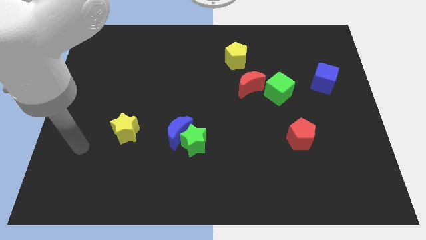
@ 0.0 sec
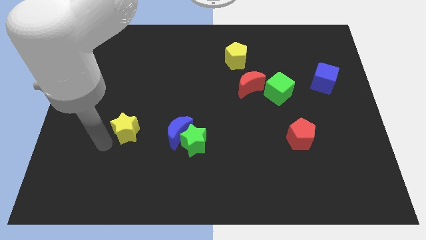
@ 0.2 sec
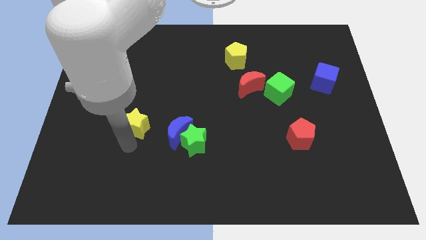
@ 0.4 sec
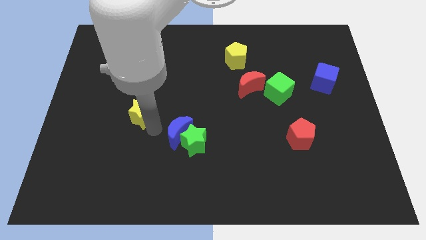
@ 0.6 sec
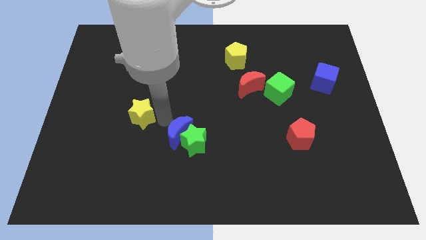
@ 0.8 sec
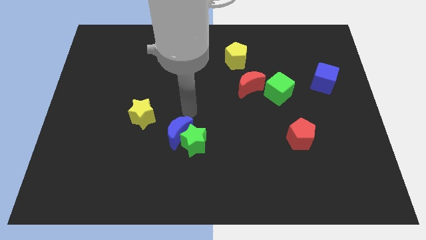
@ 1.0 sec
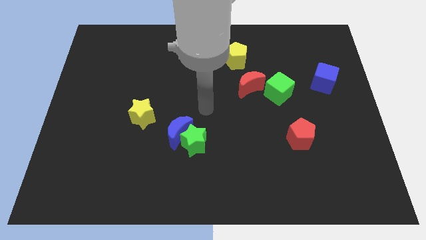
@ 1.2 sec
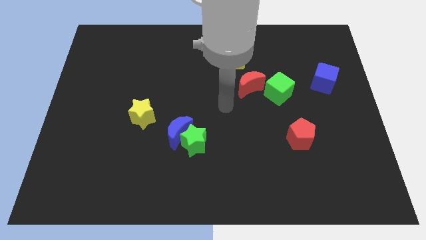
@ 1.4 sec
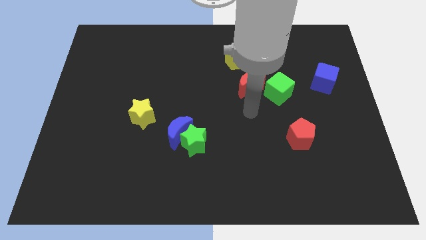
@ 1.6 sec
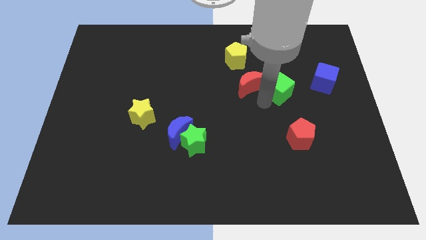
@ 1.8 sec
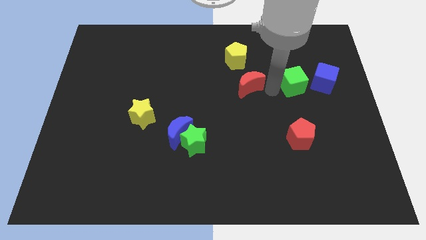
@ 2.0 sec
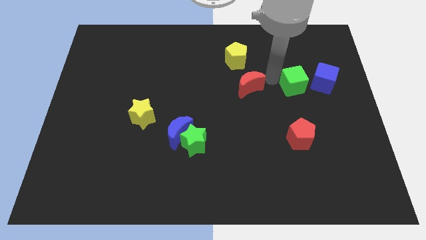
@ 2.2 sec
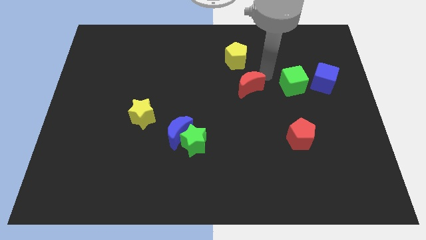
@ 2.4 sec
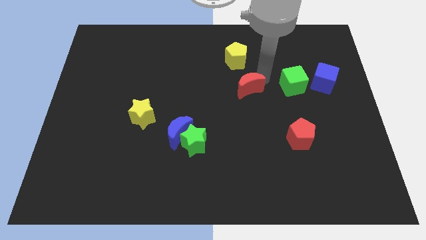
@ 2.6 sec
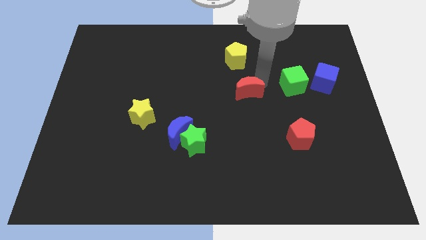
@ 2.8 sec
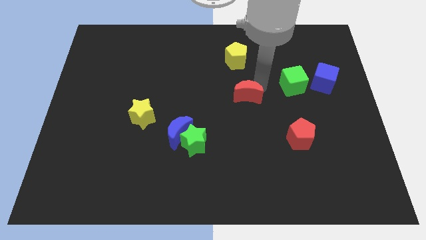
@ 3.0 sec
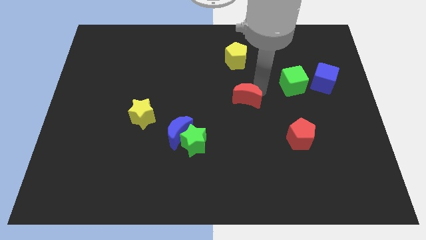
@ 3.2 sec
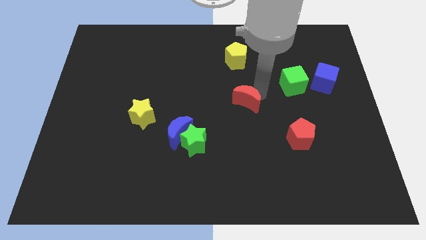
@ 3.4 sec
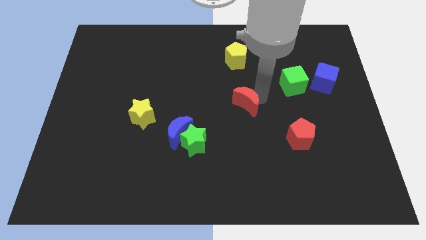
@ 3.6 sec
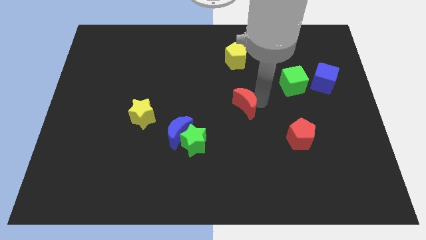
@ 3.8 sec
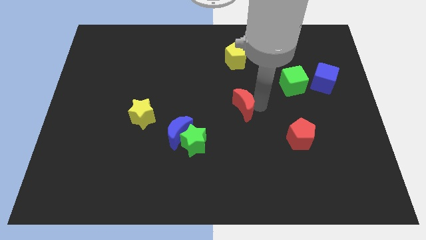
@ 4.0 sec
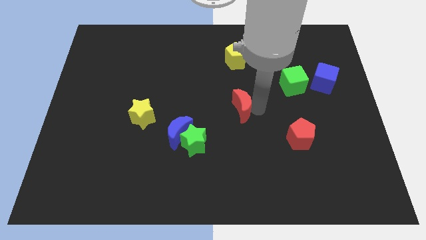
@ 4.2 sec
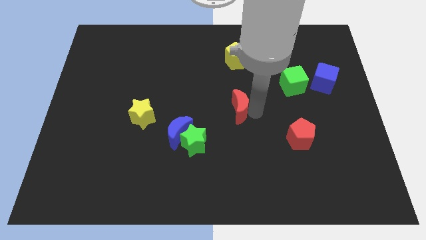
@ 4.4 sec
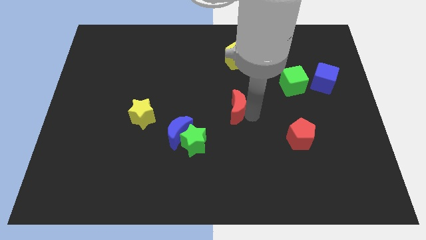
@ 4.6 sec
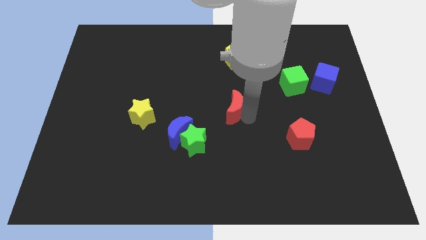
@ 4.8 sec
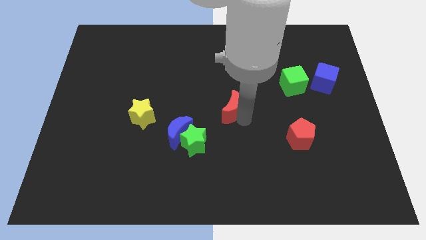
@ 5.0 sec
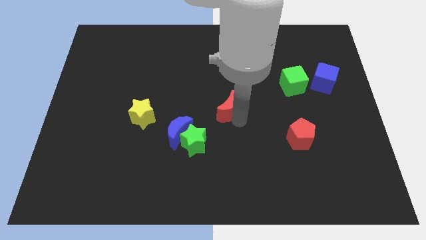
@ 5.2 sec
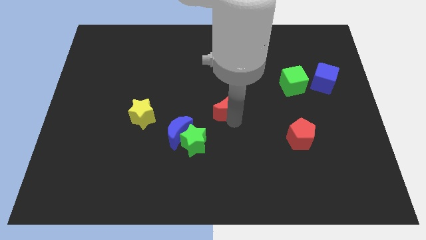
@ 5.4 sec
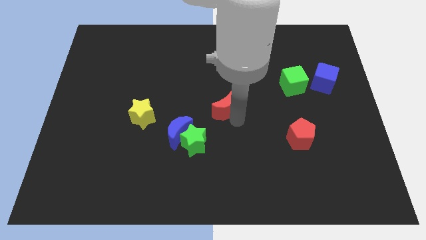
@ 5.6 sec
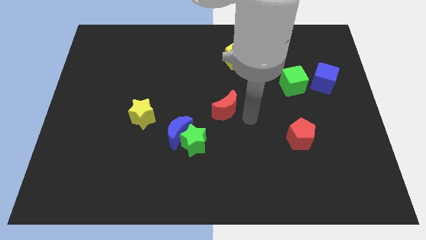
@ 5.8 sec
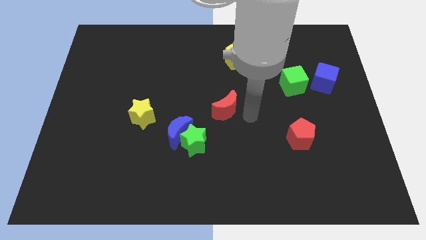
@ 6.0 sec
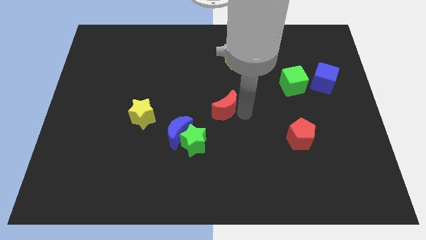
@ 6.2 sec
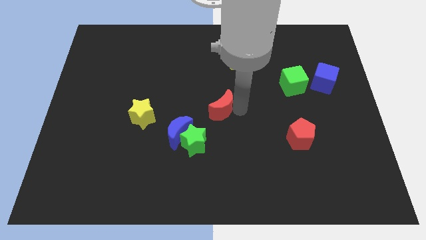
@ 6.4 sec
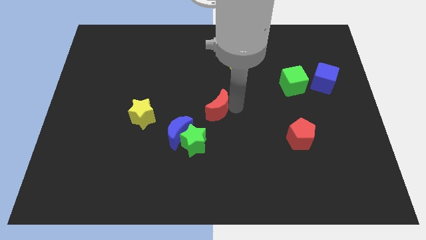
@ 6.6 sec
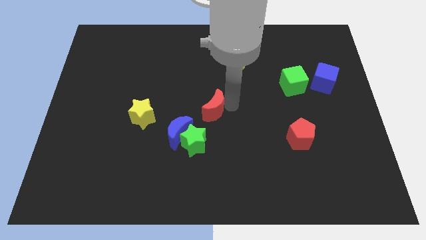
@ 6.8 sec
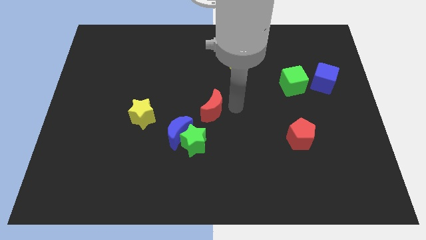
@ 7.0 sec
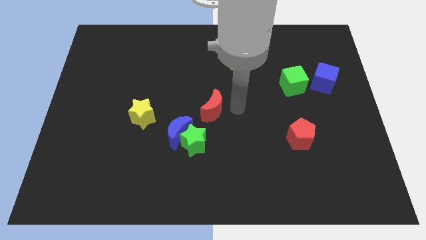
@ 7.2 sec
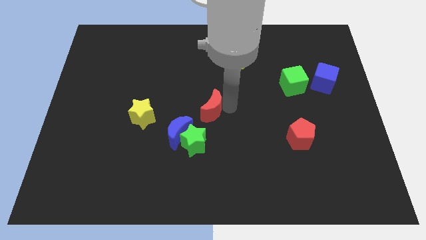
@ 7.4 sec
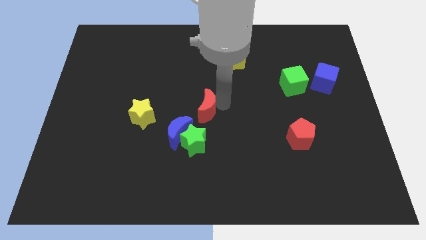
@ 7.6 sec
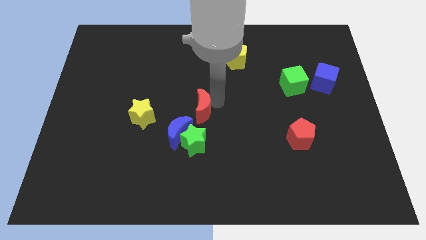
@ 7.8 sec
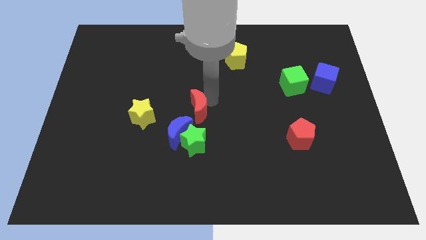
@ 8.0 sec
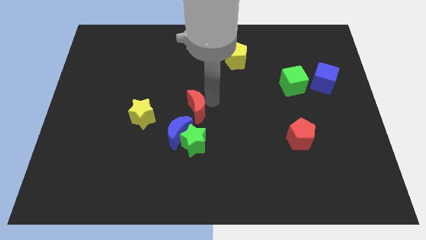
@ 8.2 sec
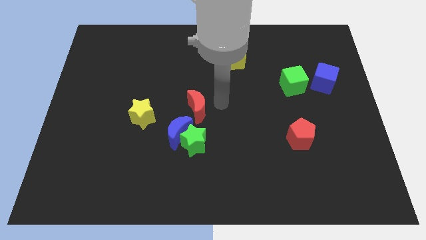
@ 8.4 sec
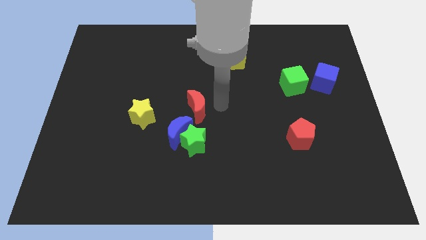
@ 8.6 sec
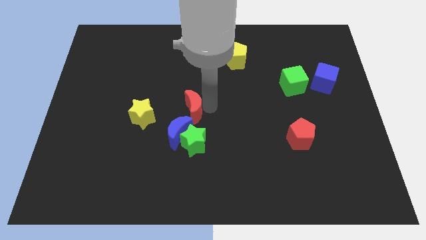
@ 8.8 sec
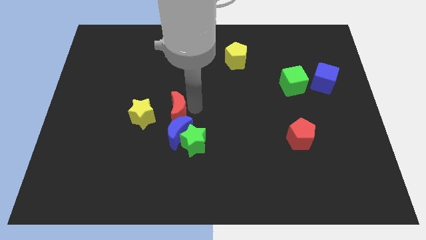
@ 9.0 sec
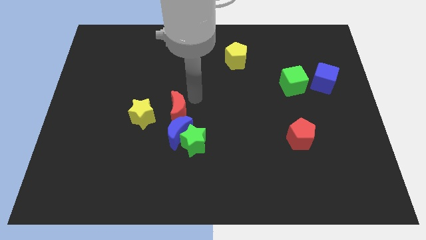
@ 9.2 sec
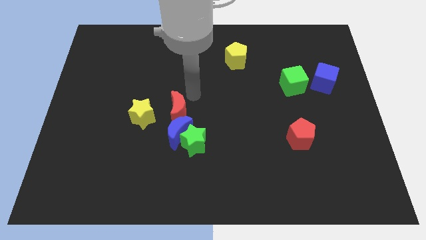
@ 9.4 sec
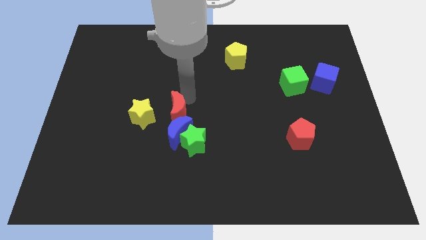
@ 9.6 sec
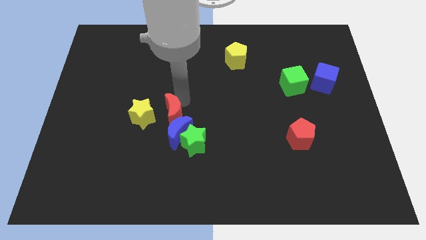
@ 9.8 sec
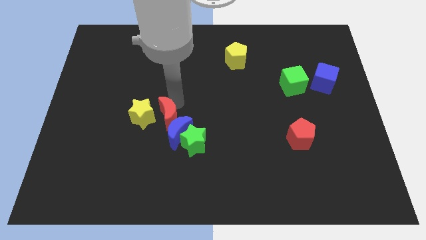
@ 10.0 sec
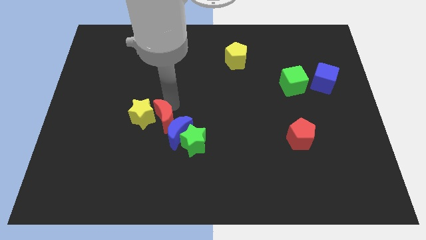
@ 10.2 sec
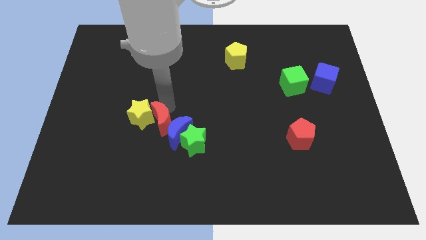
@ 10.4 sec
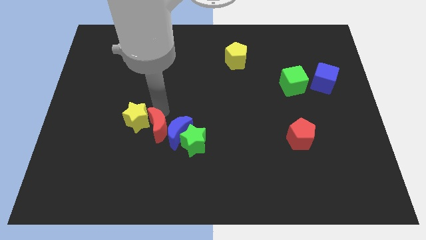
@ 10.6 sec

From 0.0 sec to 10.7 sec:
push the red moon to the bottom left side of the blue moon

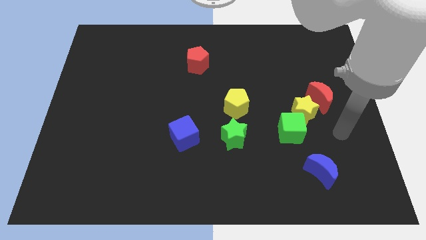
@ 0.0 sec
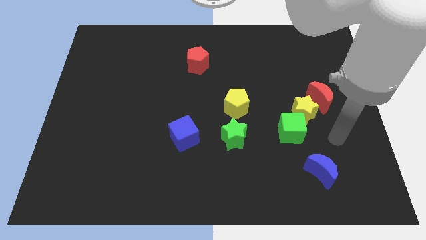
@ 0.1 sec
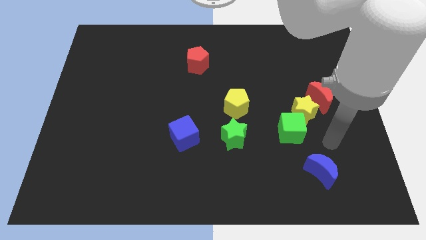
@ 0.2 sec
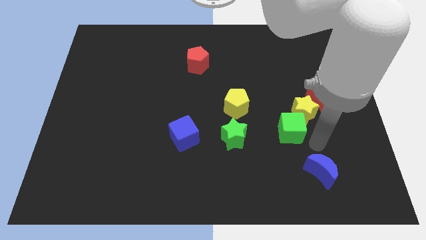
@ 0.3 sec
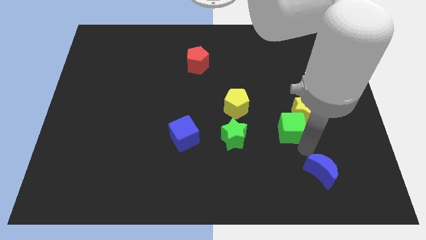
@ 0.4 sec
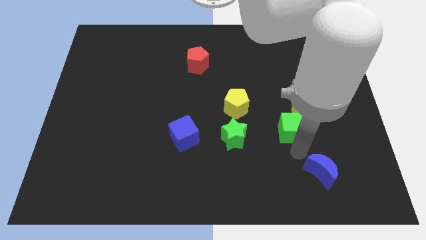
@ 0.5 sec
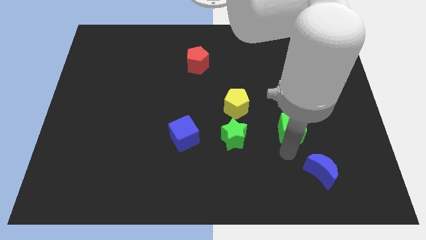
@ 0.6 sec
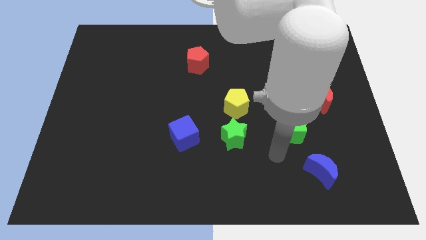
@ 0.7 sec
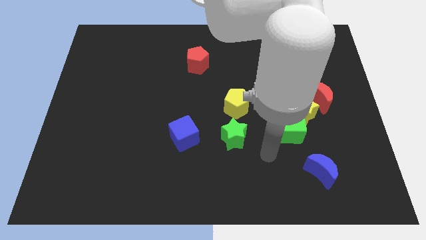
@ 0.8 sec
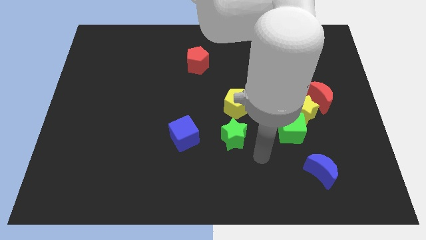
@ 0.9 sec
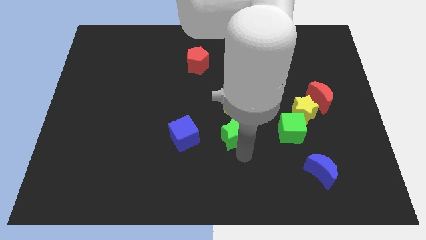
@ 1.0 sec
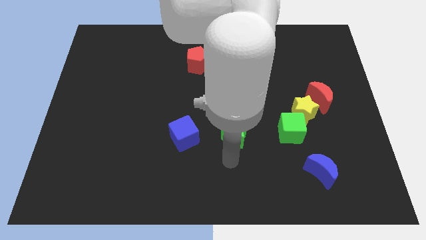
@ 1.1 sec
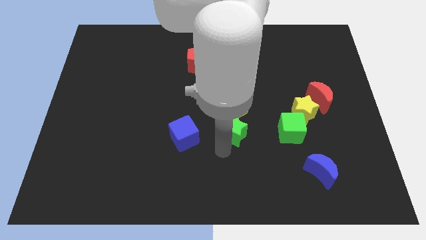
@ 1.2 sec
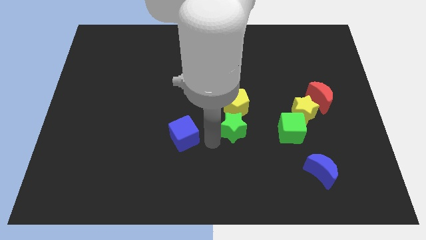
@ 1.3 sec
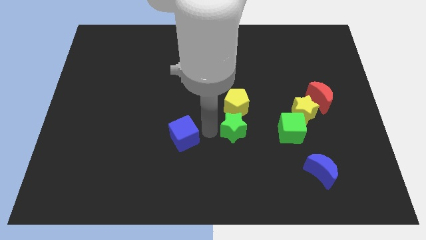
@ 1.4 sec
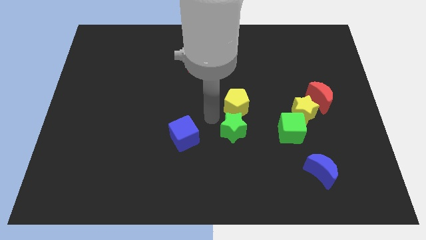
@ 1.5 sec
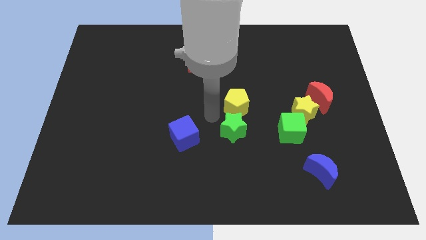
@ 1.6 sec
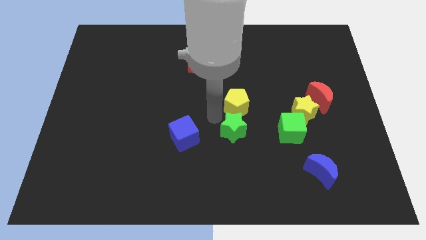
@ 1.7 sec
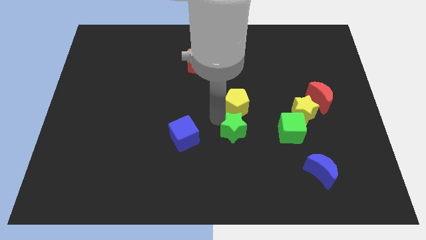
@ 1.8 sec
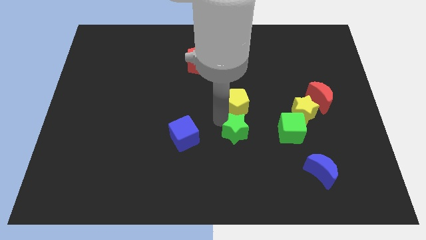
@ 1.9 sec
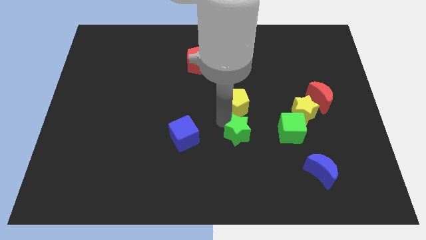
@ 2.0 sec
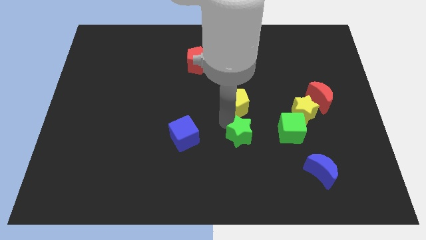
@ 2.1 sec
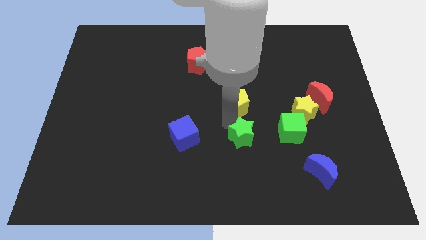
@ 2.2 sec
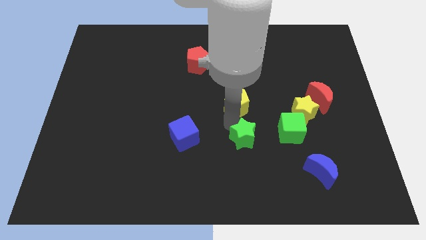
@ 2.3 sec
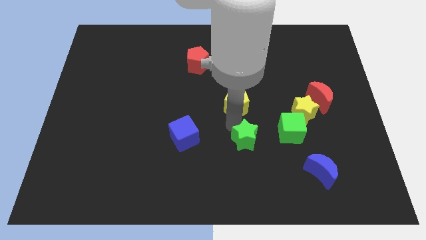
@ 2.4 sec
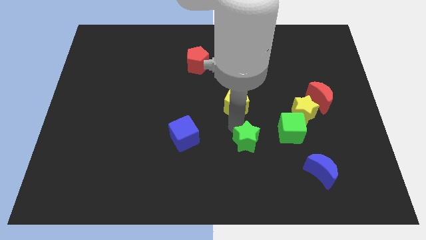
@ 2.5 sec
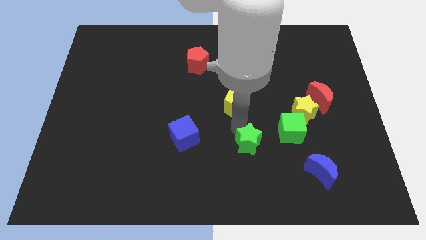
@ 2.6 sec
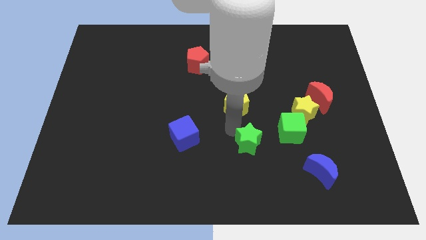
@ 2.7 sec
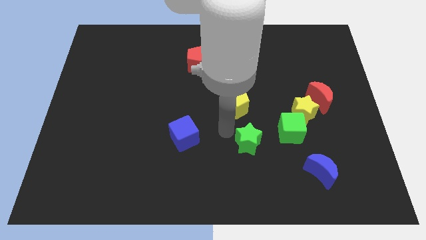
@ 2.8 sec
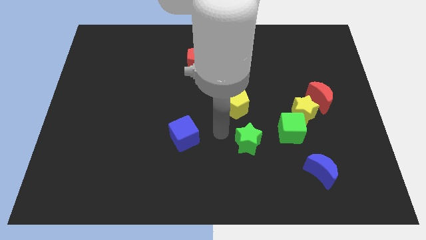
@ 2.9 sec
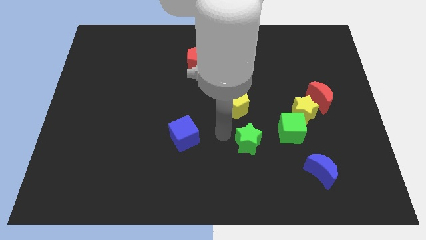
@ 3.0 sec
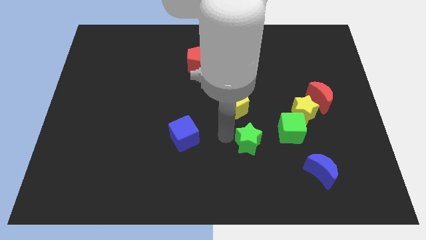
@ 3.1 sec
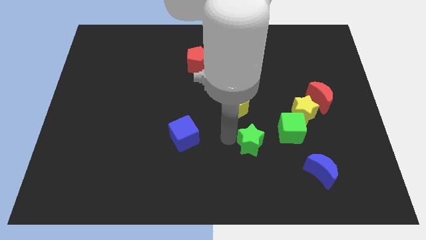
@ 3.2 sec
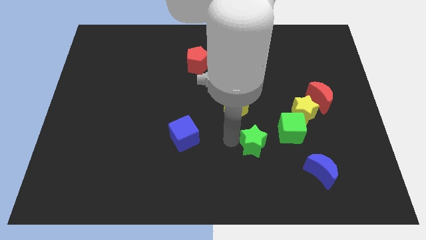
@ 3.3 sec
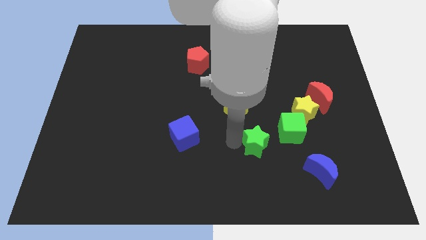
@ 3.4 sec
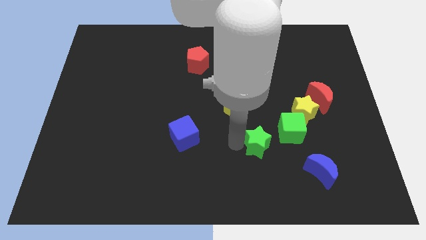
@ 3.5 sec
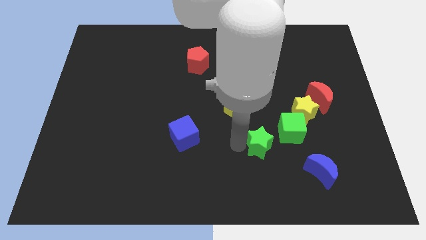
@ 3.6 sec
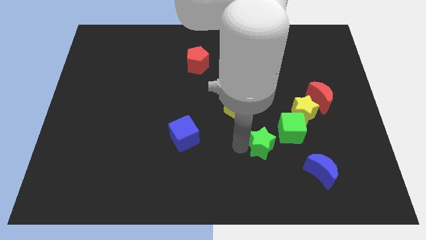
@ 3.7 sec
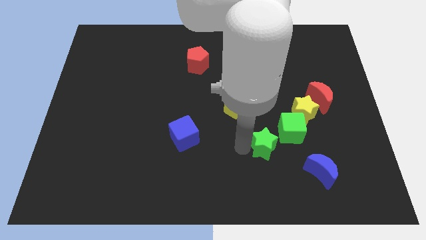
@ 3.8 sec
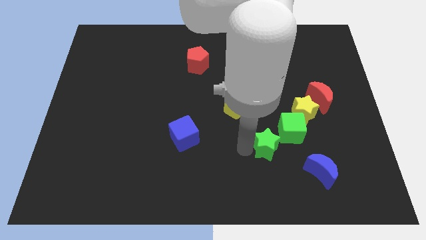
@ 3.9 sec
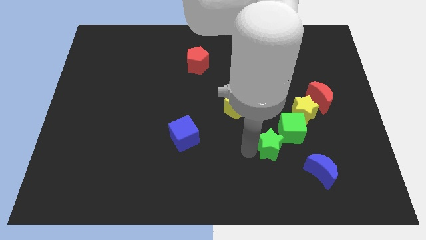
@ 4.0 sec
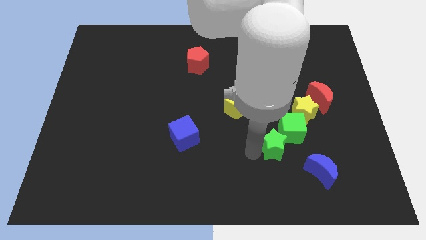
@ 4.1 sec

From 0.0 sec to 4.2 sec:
put the green star below the green cube
